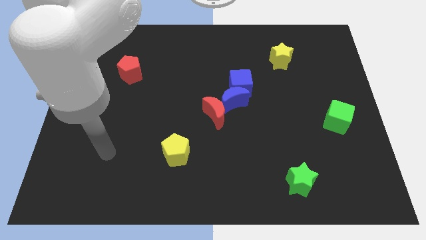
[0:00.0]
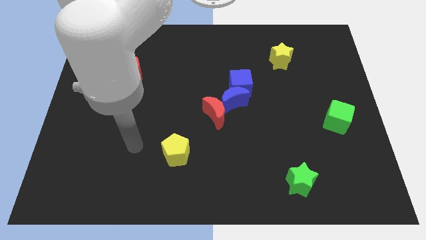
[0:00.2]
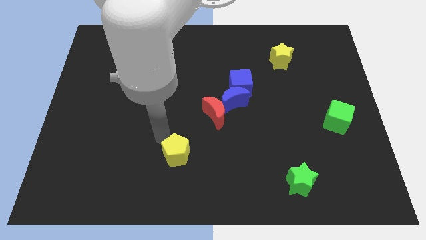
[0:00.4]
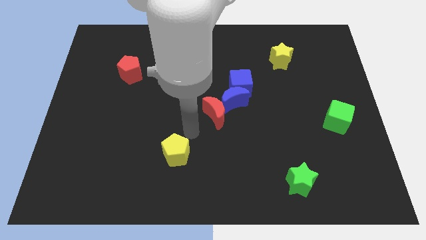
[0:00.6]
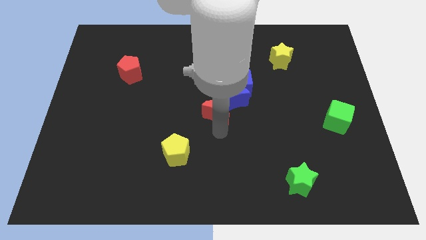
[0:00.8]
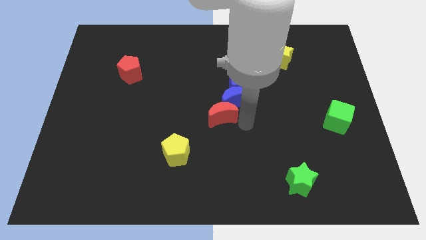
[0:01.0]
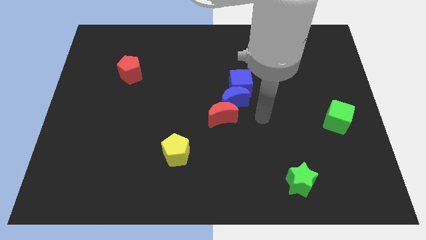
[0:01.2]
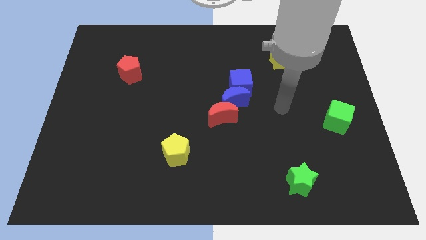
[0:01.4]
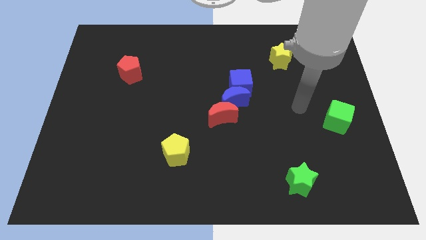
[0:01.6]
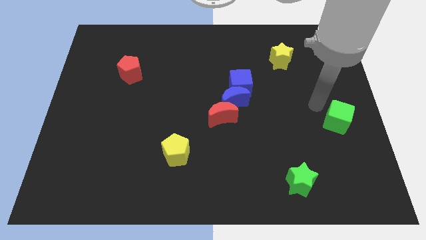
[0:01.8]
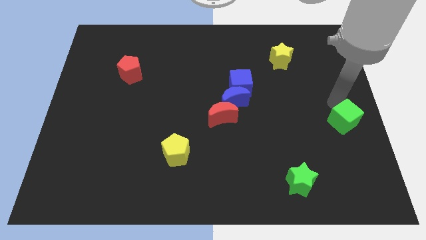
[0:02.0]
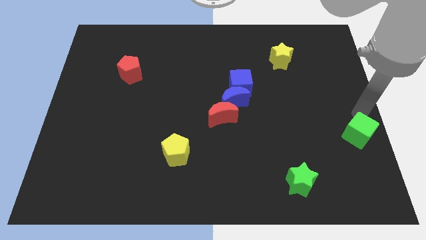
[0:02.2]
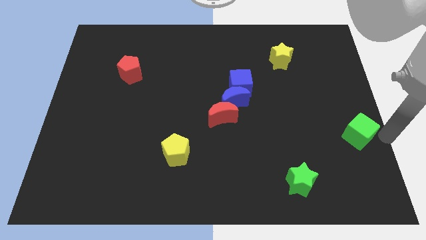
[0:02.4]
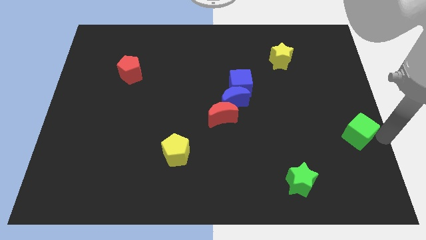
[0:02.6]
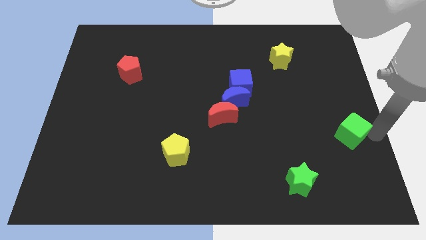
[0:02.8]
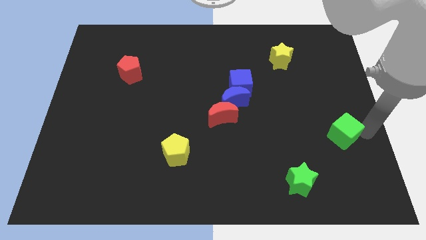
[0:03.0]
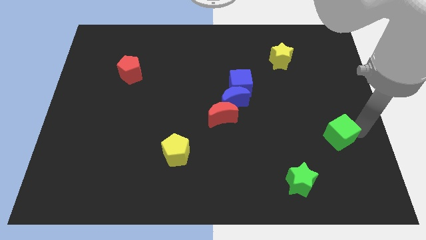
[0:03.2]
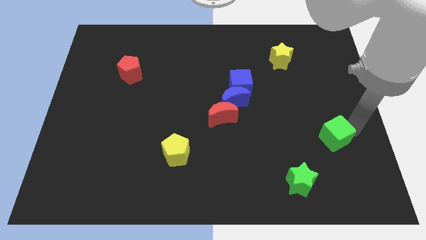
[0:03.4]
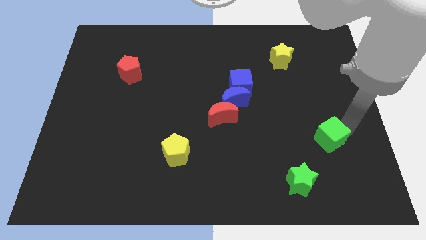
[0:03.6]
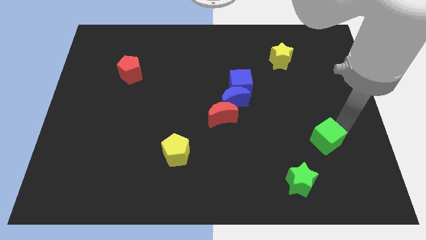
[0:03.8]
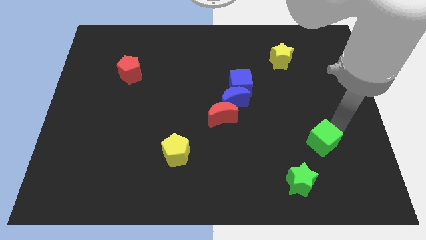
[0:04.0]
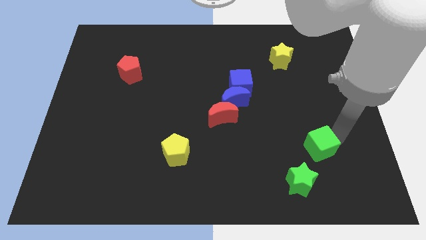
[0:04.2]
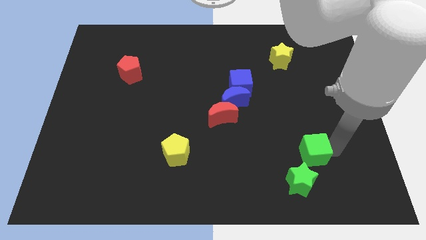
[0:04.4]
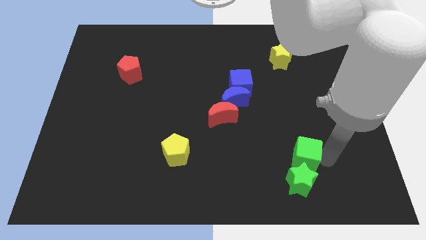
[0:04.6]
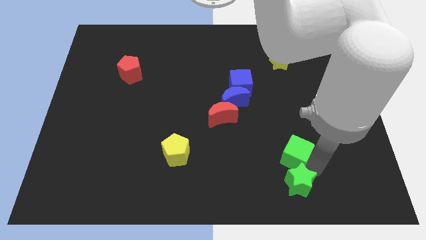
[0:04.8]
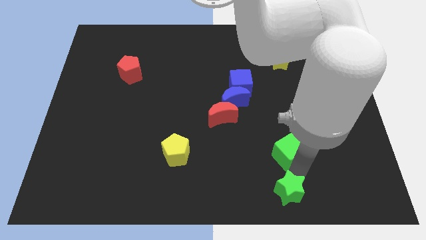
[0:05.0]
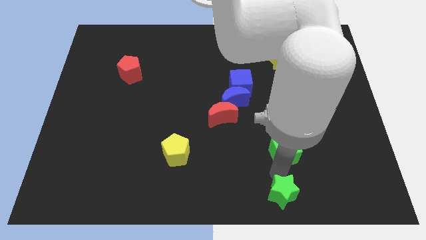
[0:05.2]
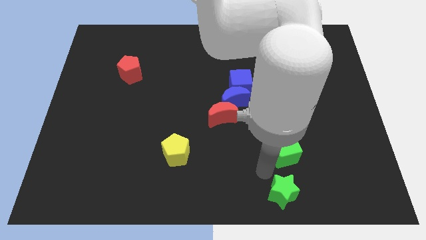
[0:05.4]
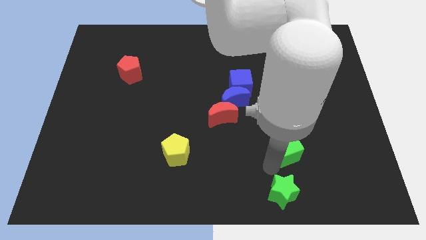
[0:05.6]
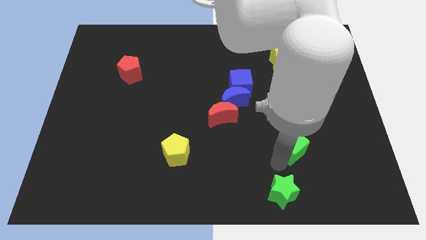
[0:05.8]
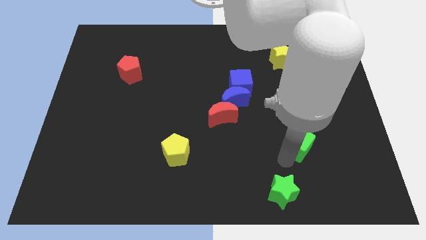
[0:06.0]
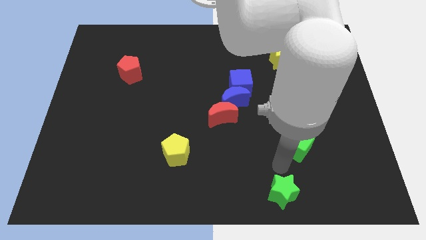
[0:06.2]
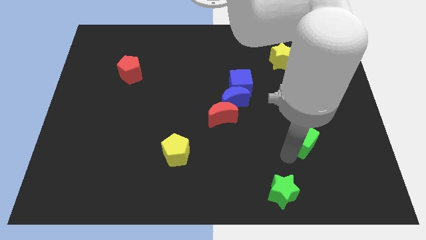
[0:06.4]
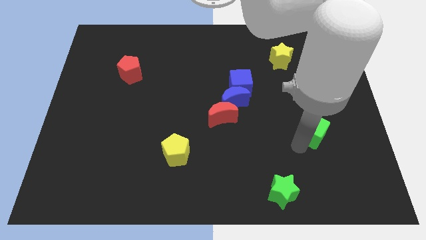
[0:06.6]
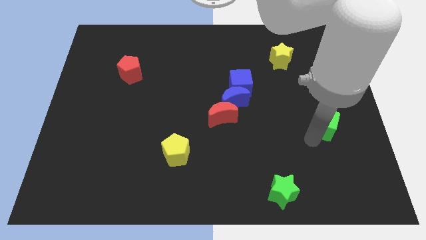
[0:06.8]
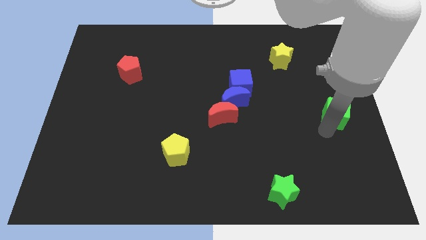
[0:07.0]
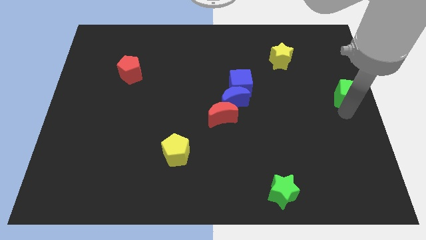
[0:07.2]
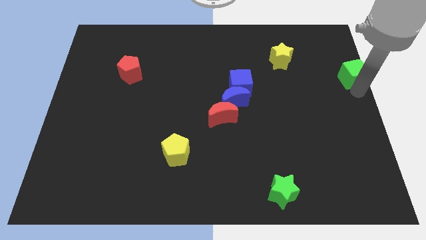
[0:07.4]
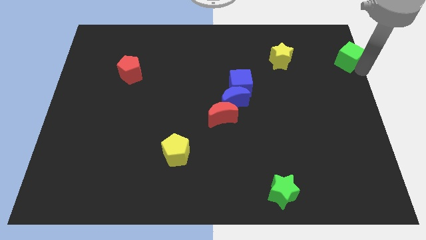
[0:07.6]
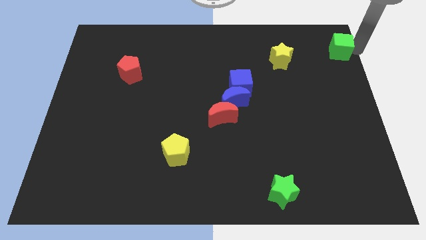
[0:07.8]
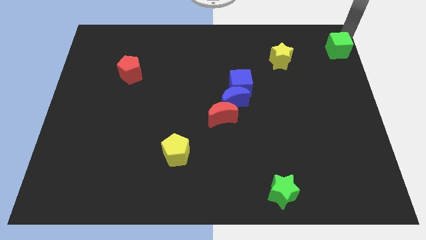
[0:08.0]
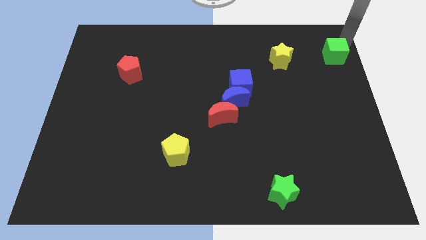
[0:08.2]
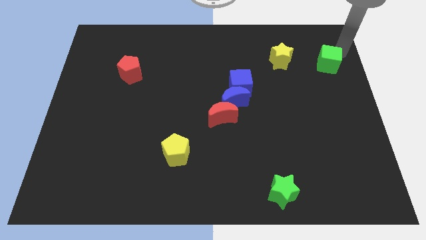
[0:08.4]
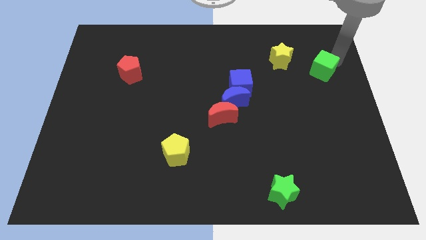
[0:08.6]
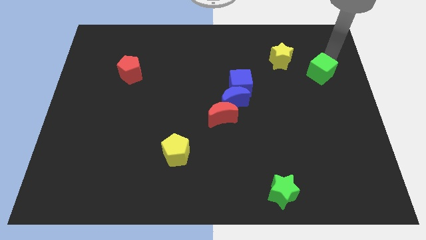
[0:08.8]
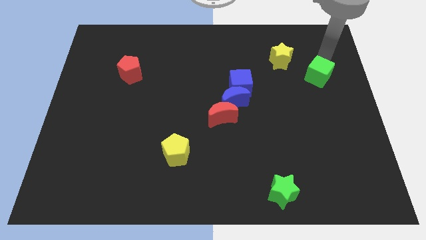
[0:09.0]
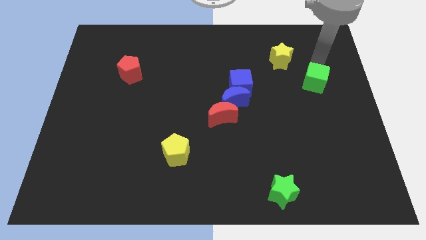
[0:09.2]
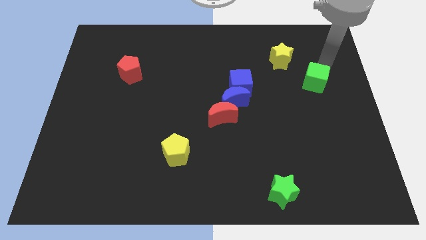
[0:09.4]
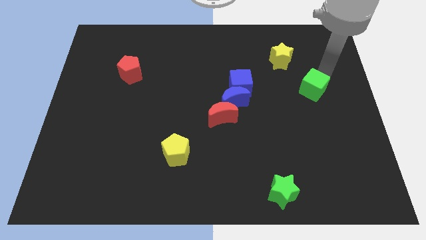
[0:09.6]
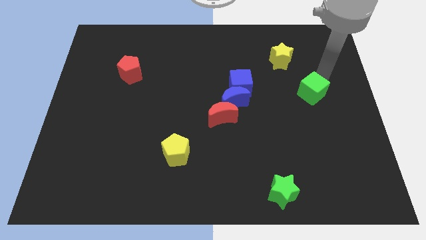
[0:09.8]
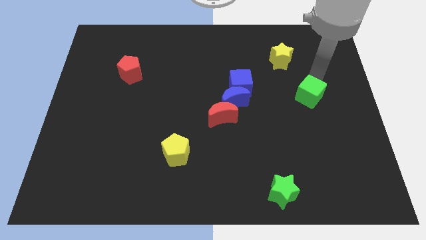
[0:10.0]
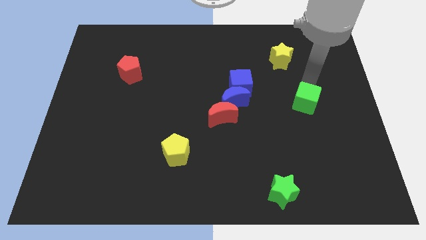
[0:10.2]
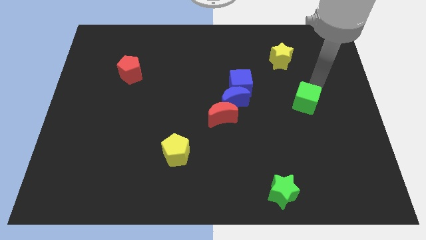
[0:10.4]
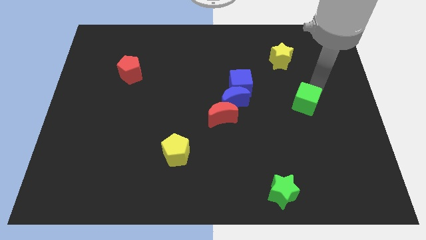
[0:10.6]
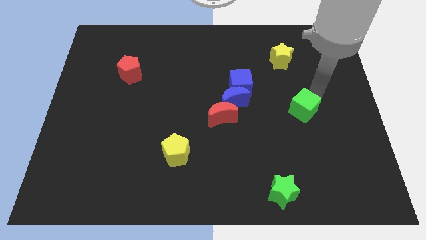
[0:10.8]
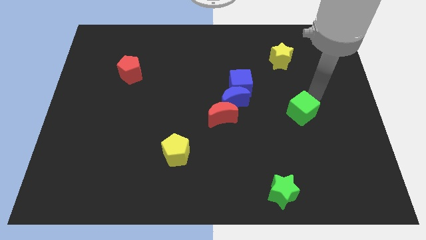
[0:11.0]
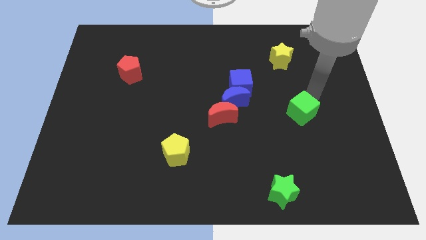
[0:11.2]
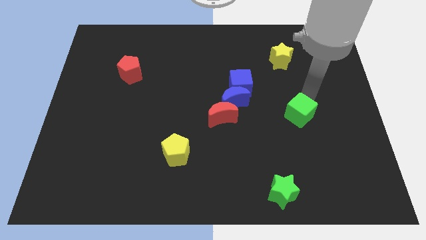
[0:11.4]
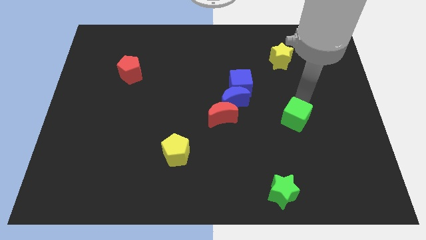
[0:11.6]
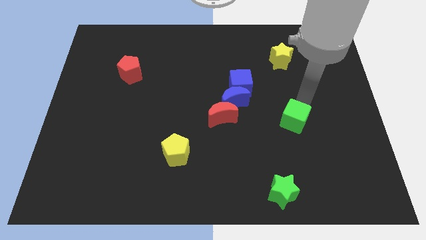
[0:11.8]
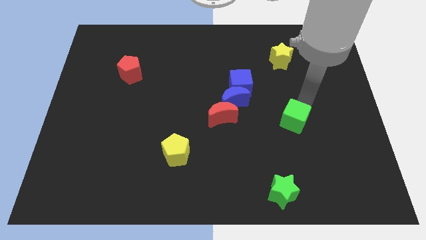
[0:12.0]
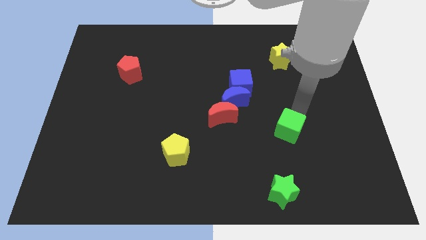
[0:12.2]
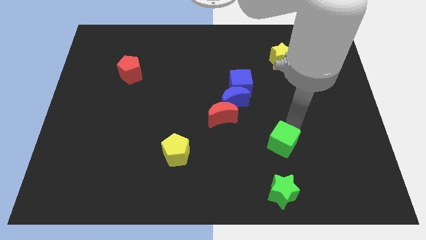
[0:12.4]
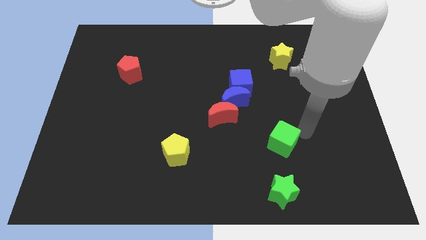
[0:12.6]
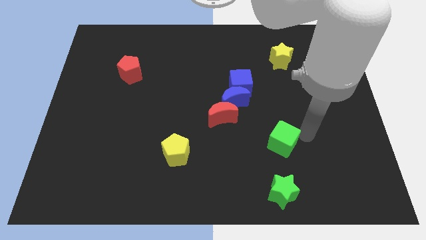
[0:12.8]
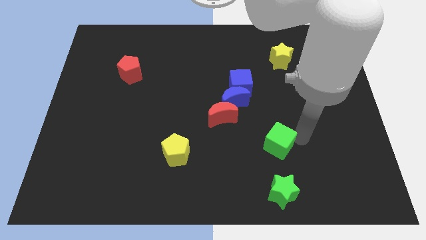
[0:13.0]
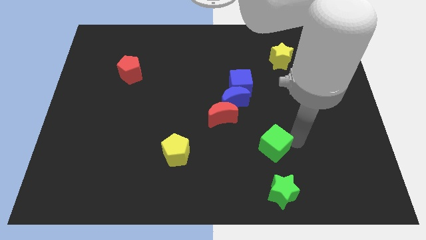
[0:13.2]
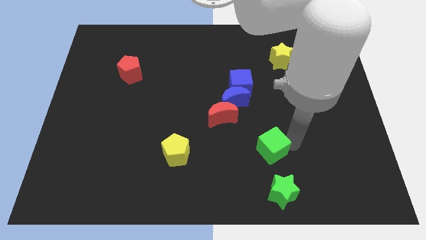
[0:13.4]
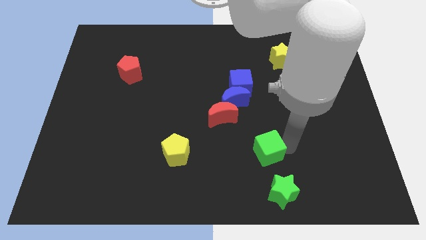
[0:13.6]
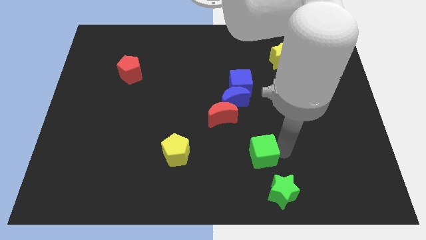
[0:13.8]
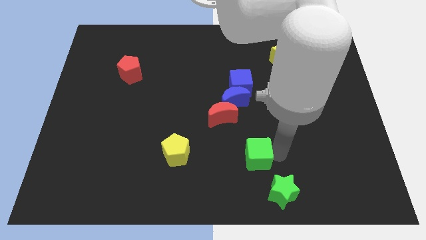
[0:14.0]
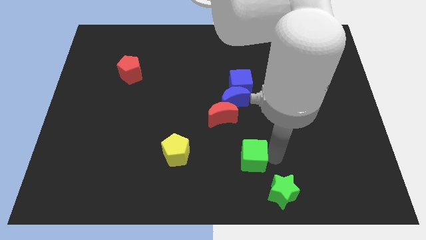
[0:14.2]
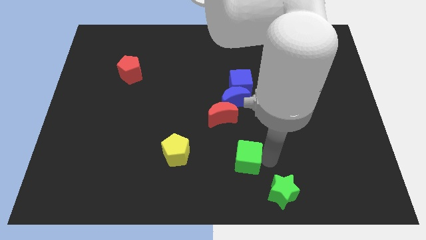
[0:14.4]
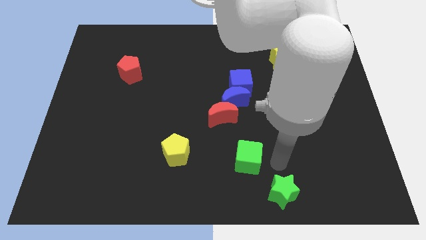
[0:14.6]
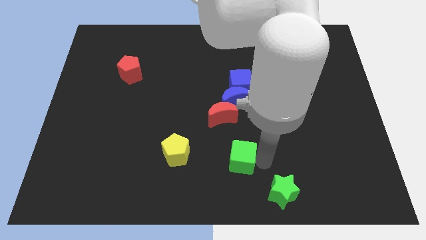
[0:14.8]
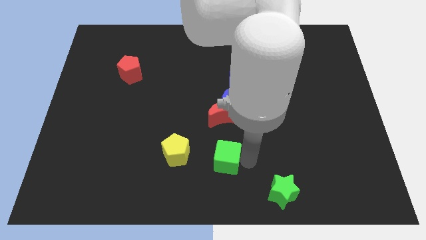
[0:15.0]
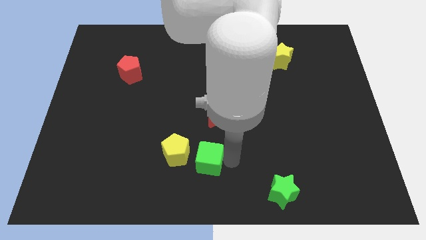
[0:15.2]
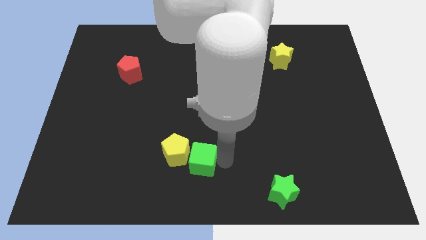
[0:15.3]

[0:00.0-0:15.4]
push the green cube towards the yellow pentagon
